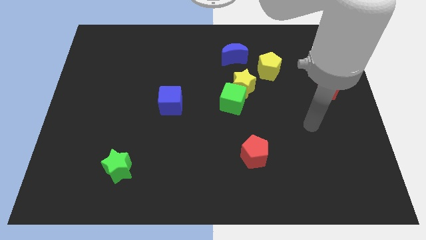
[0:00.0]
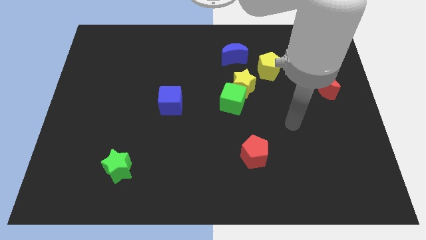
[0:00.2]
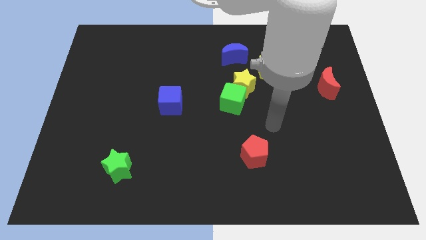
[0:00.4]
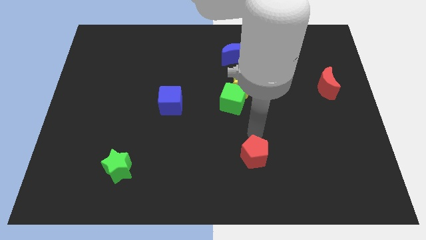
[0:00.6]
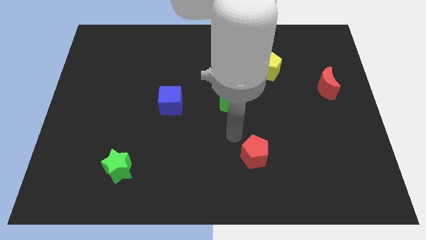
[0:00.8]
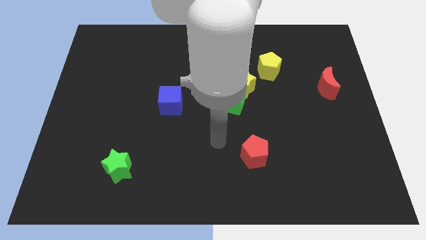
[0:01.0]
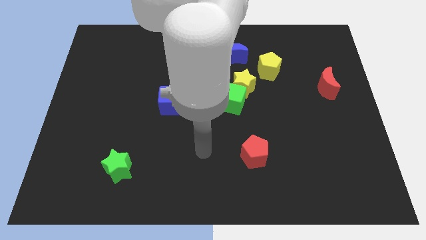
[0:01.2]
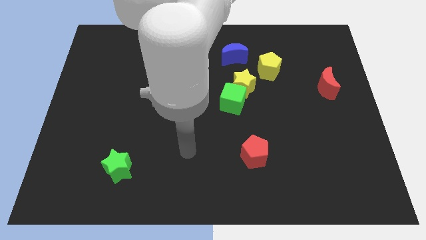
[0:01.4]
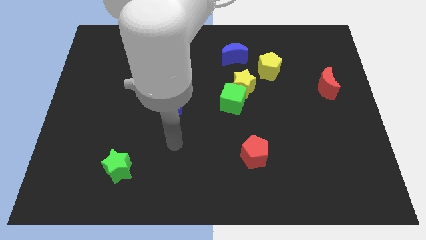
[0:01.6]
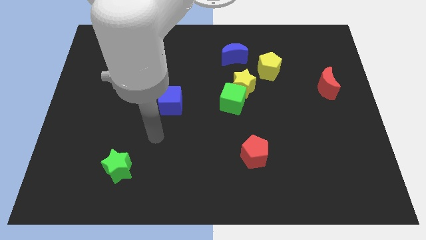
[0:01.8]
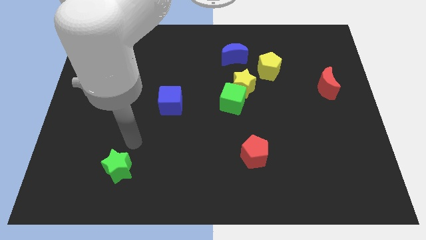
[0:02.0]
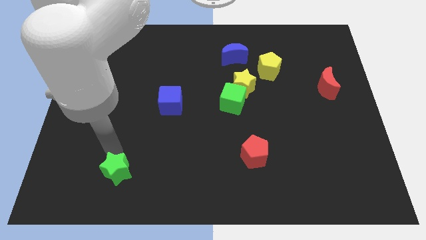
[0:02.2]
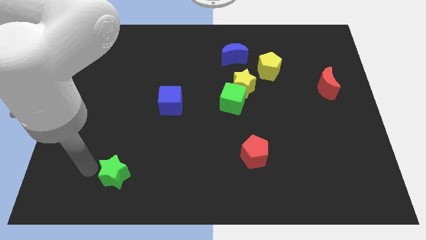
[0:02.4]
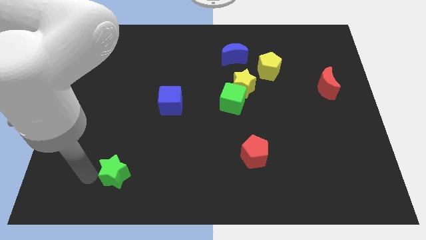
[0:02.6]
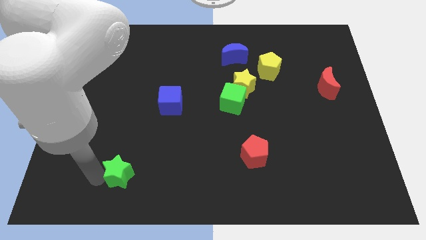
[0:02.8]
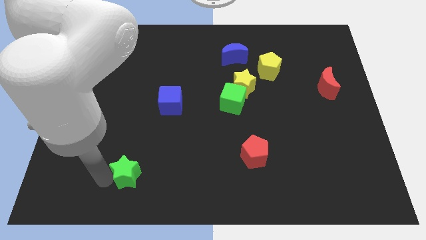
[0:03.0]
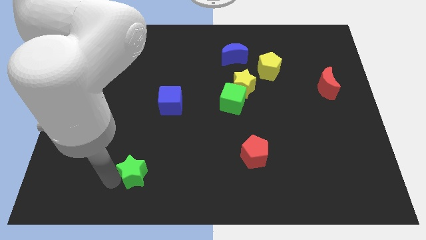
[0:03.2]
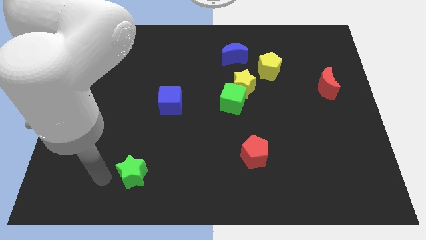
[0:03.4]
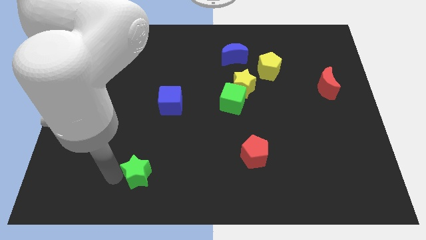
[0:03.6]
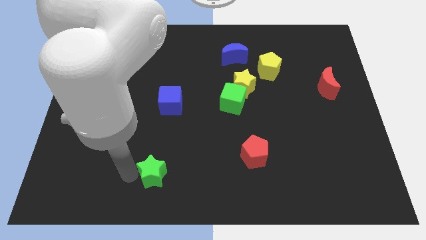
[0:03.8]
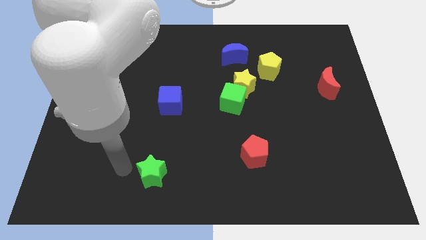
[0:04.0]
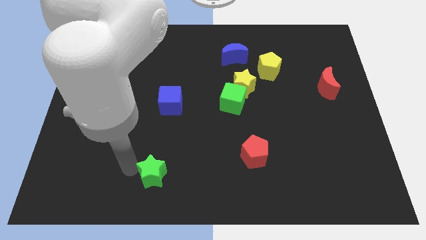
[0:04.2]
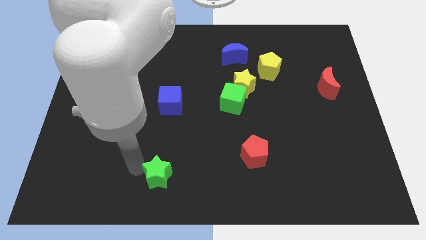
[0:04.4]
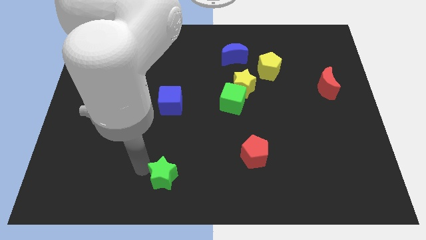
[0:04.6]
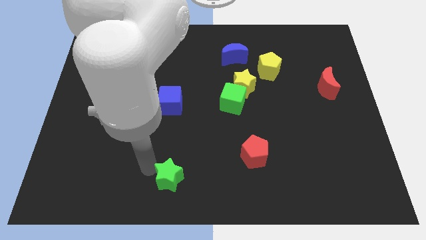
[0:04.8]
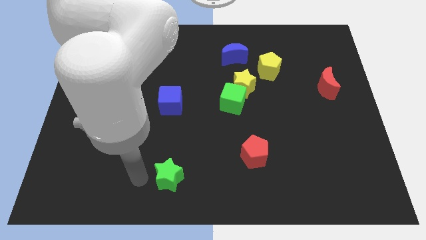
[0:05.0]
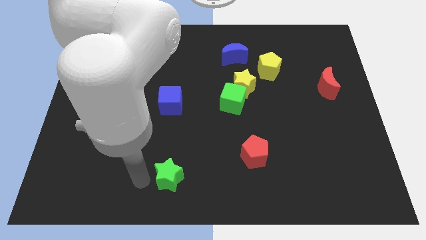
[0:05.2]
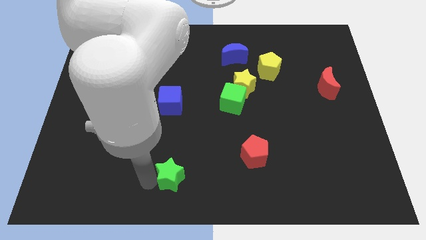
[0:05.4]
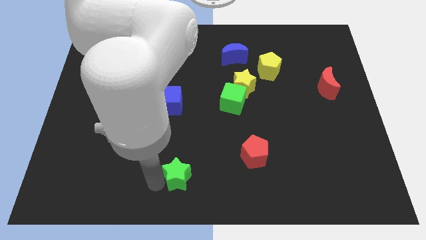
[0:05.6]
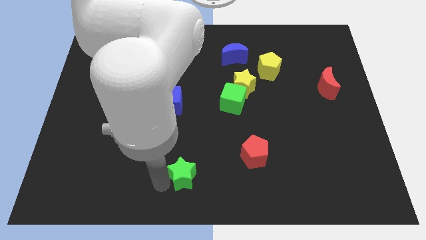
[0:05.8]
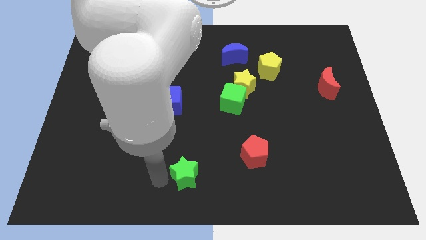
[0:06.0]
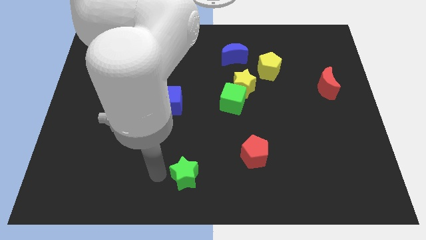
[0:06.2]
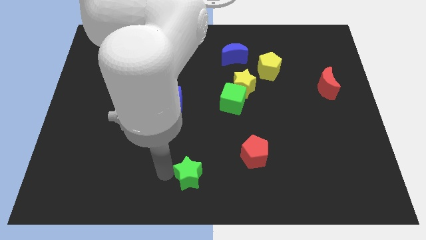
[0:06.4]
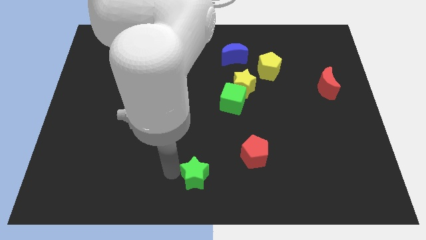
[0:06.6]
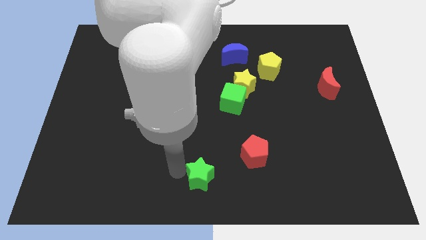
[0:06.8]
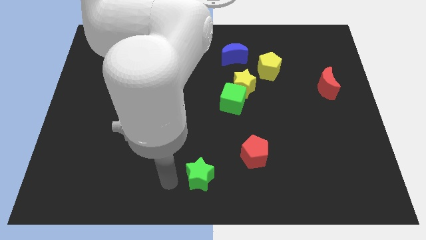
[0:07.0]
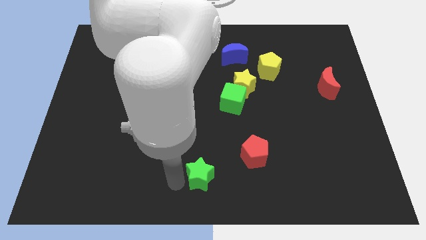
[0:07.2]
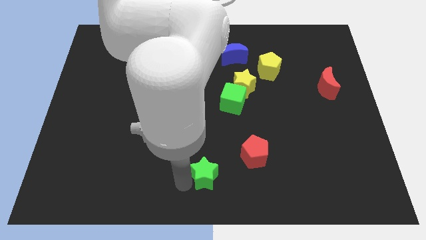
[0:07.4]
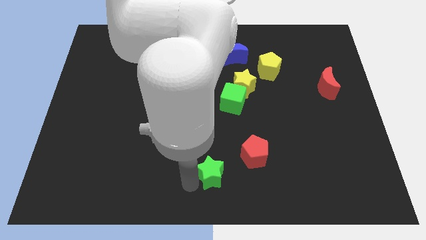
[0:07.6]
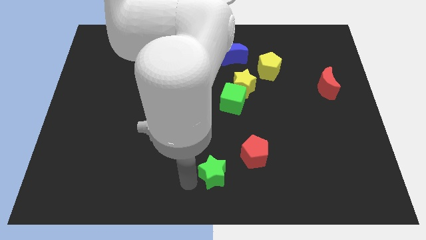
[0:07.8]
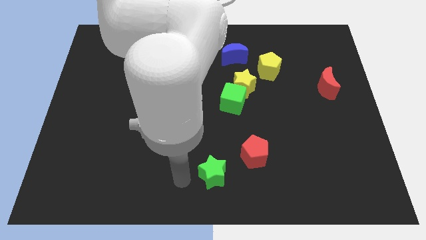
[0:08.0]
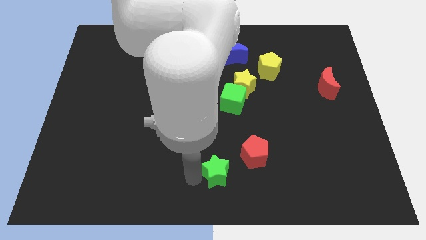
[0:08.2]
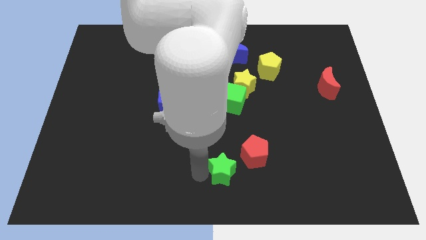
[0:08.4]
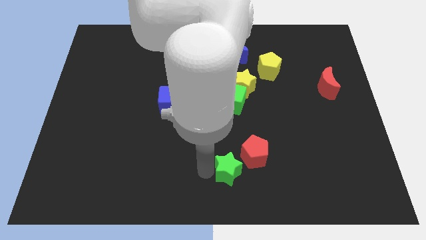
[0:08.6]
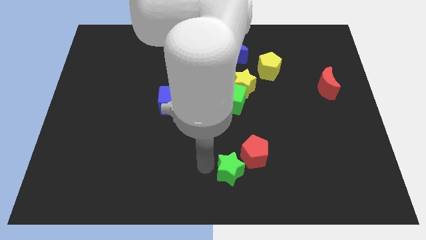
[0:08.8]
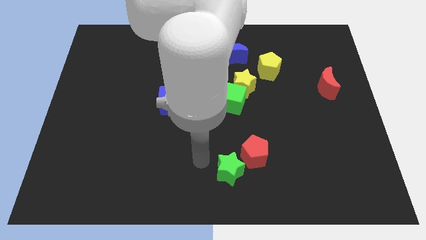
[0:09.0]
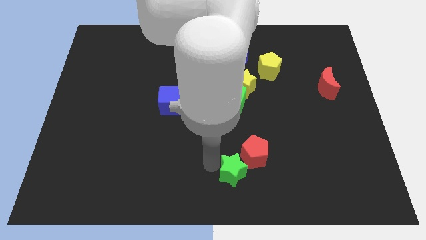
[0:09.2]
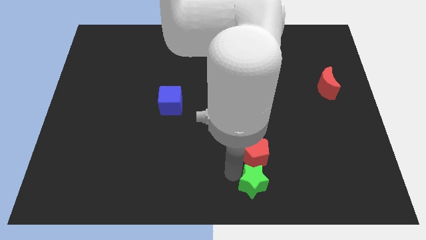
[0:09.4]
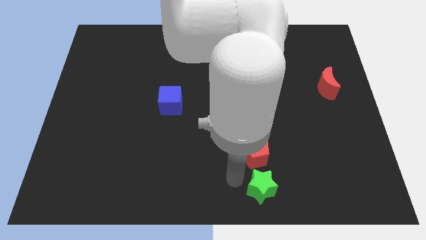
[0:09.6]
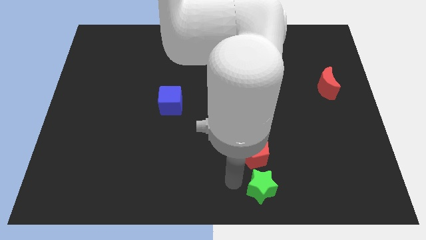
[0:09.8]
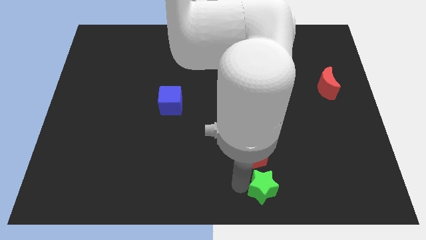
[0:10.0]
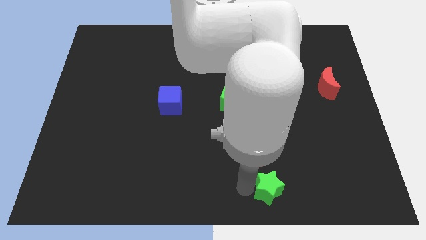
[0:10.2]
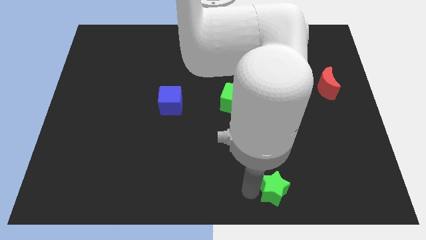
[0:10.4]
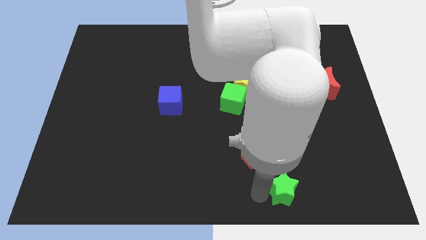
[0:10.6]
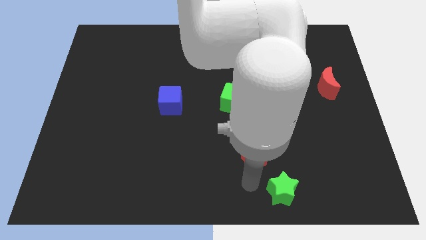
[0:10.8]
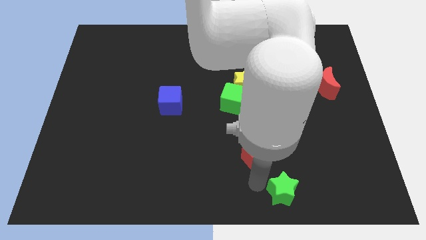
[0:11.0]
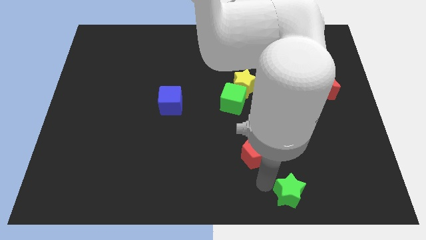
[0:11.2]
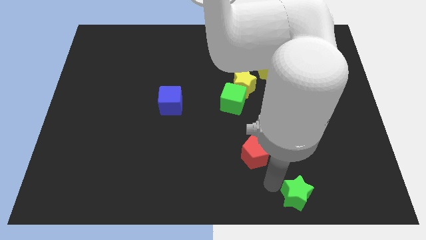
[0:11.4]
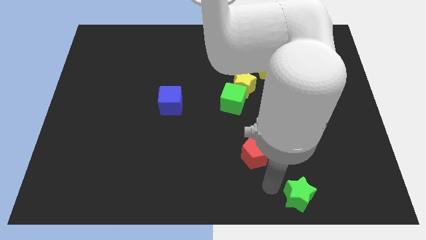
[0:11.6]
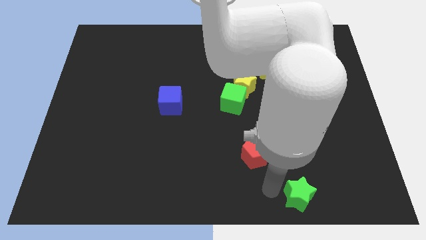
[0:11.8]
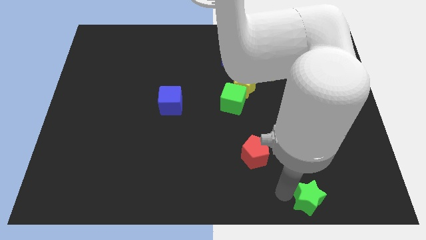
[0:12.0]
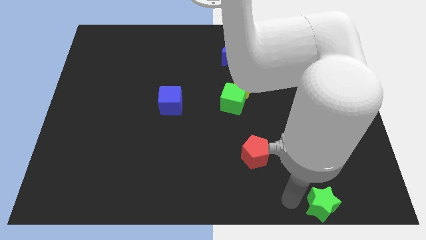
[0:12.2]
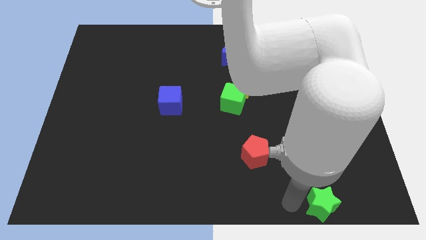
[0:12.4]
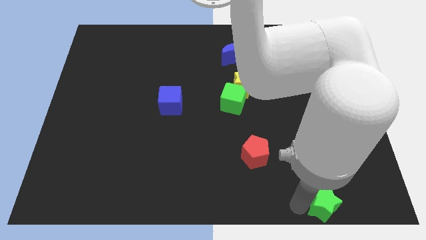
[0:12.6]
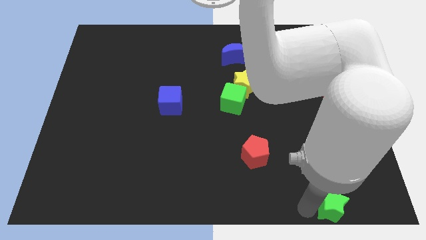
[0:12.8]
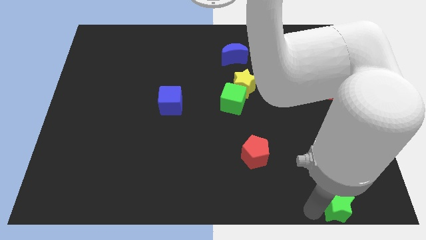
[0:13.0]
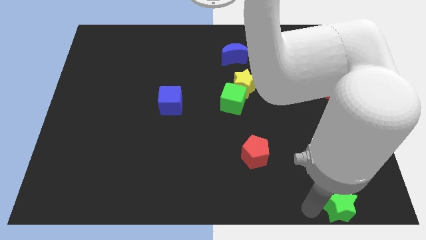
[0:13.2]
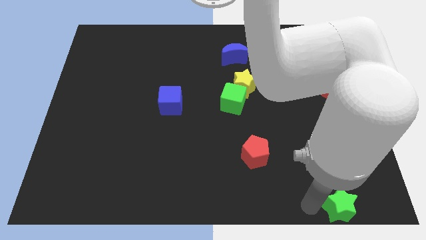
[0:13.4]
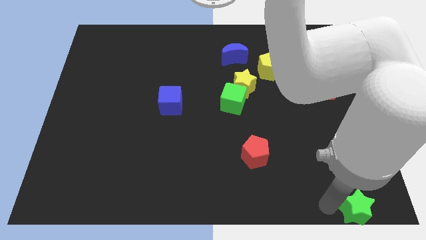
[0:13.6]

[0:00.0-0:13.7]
move the green star to the bottom right

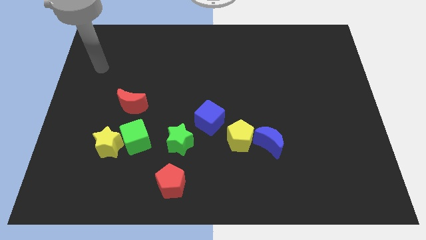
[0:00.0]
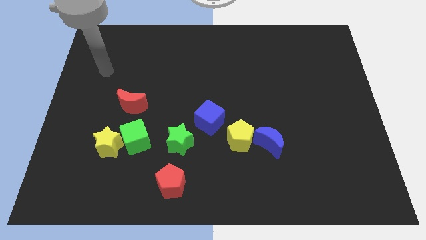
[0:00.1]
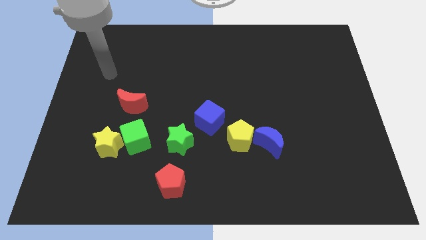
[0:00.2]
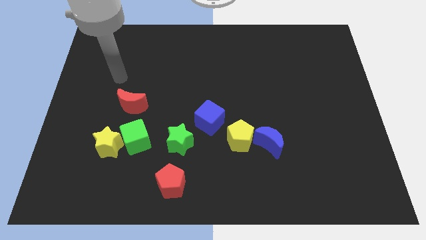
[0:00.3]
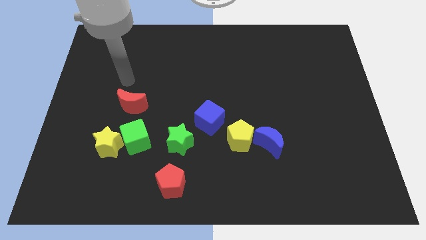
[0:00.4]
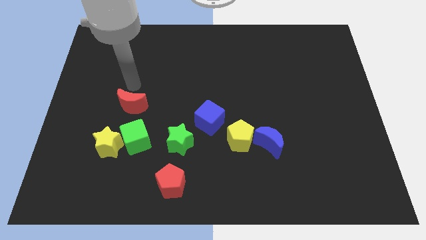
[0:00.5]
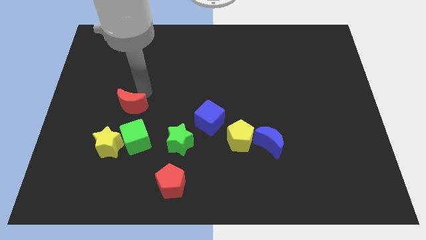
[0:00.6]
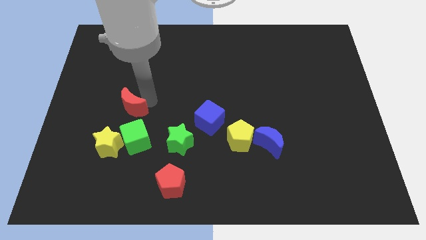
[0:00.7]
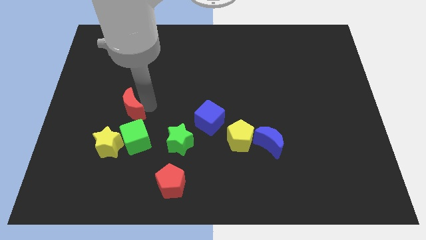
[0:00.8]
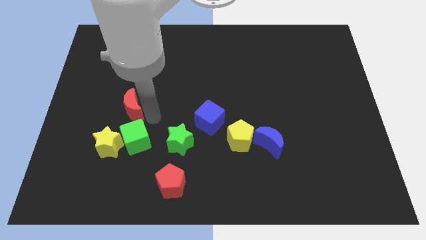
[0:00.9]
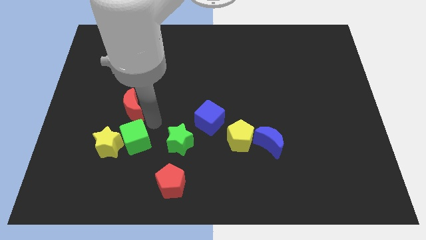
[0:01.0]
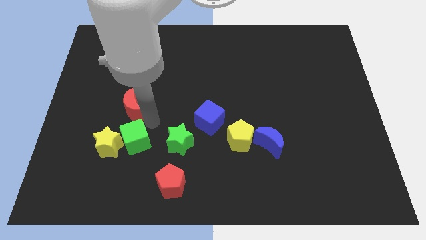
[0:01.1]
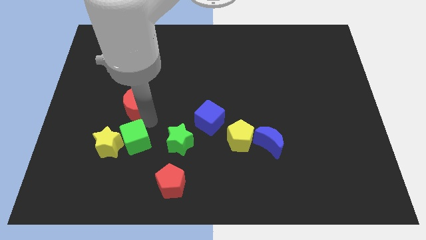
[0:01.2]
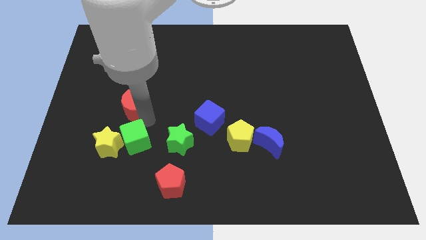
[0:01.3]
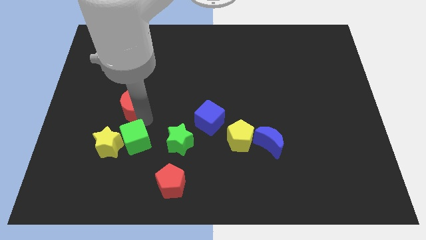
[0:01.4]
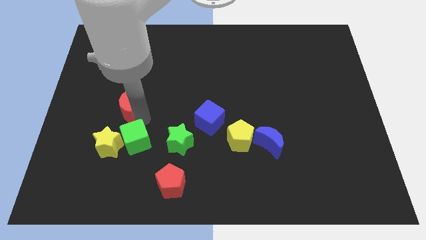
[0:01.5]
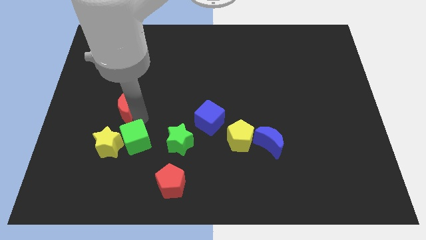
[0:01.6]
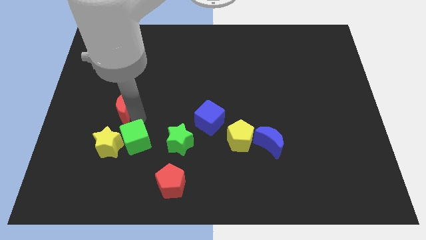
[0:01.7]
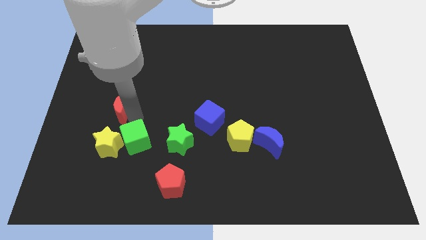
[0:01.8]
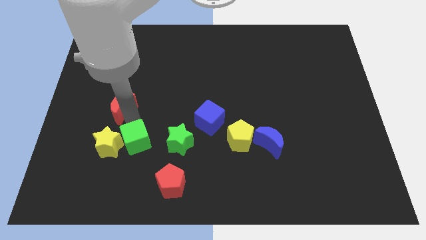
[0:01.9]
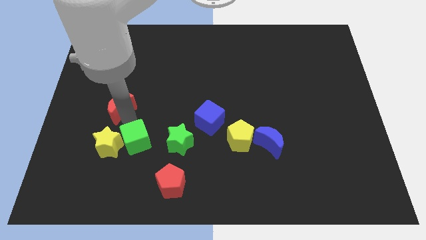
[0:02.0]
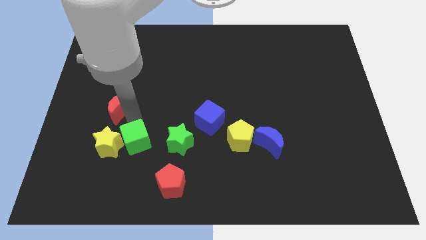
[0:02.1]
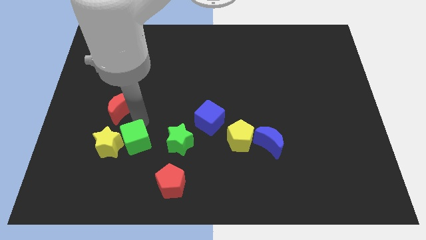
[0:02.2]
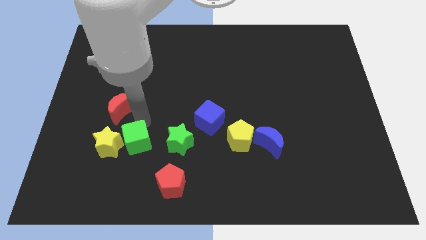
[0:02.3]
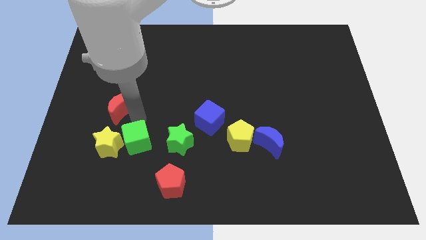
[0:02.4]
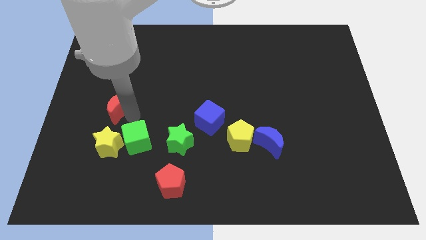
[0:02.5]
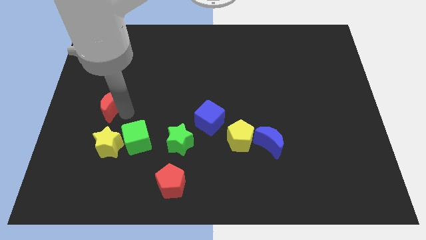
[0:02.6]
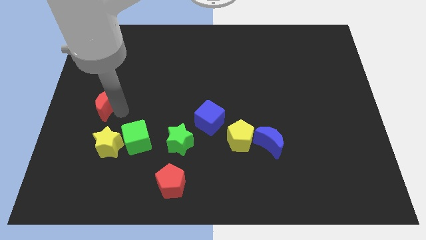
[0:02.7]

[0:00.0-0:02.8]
slide the red moon to the left side of the board
